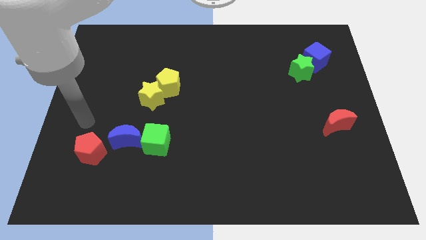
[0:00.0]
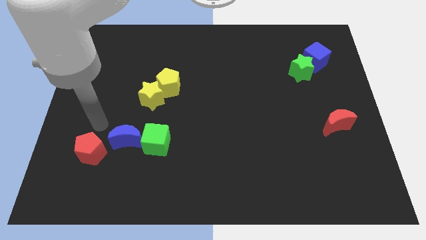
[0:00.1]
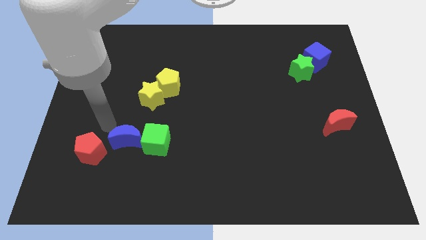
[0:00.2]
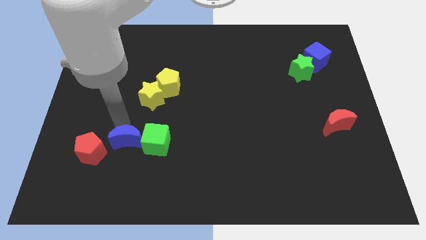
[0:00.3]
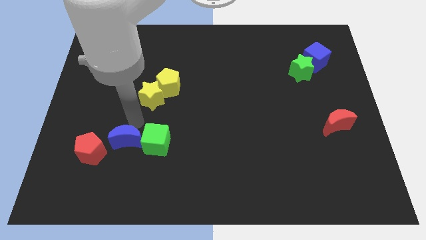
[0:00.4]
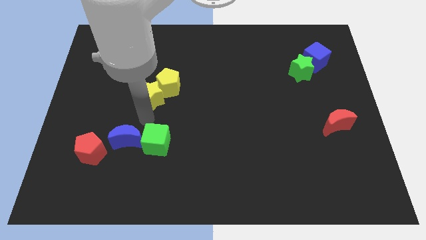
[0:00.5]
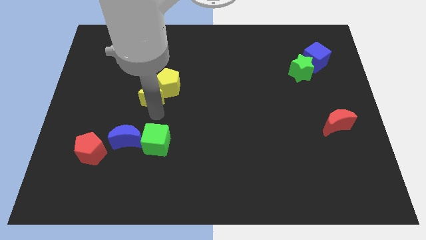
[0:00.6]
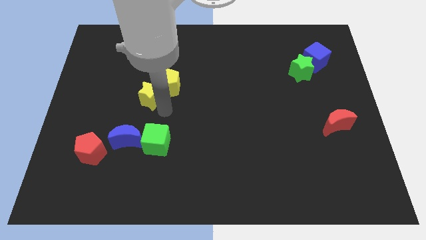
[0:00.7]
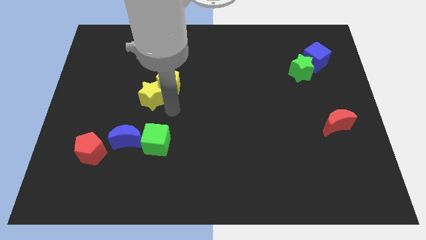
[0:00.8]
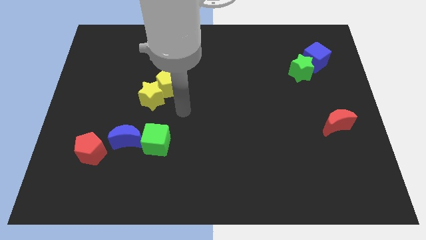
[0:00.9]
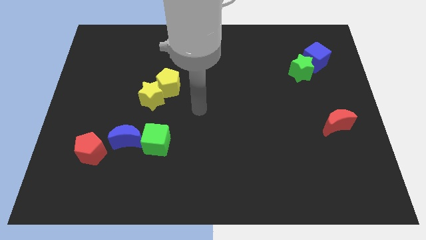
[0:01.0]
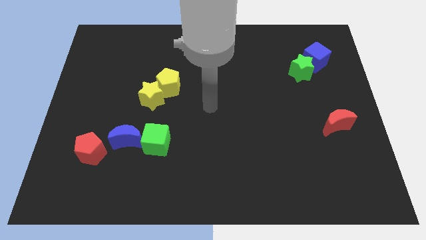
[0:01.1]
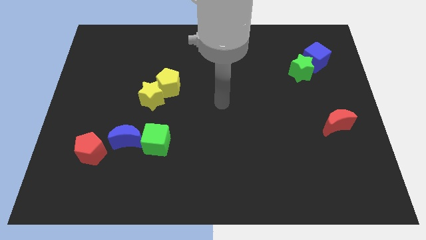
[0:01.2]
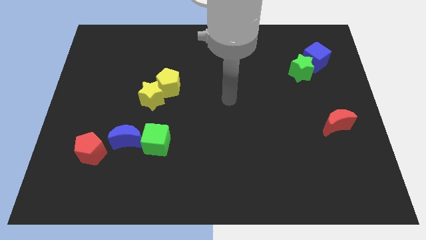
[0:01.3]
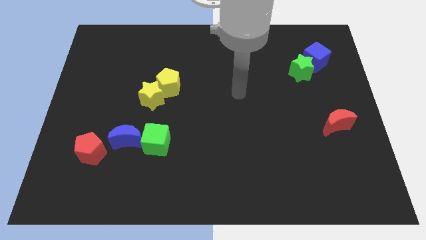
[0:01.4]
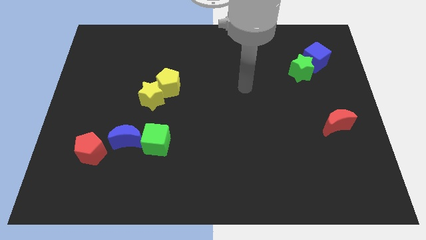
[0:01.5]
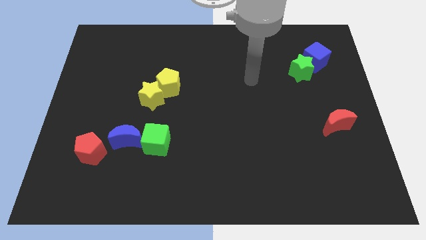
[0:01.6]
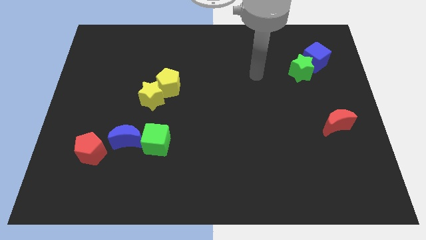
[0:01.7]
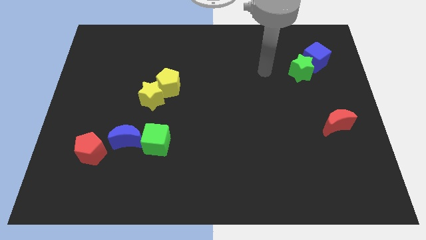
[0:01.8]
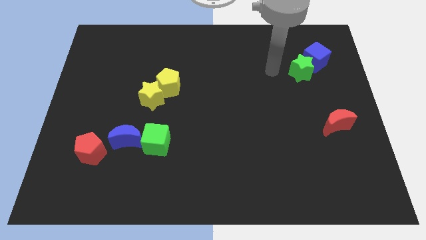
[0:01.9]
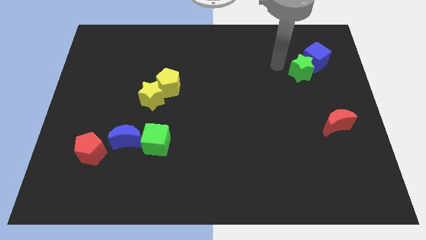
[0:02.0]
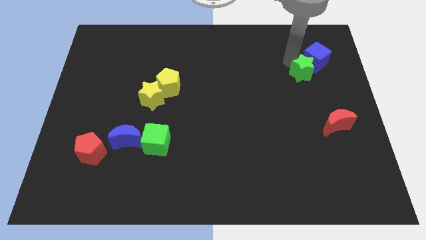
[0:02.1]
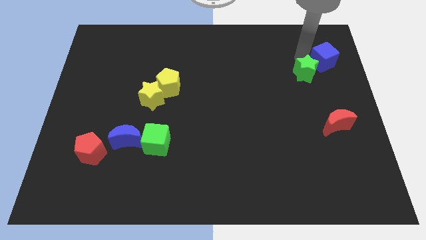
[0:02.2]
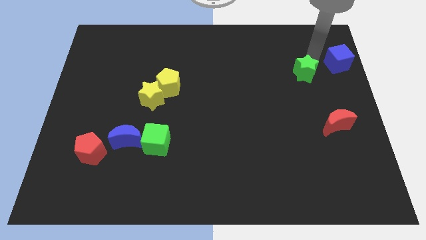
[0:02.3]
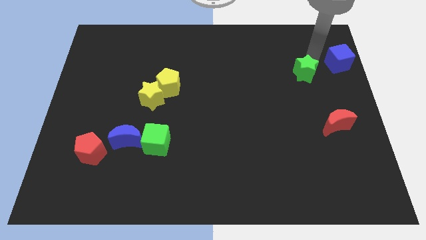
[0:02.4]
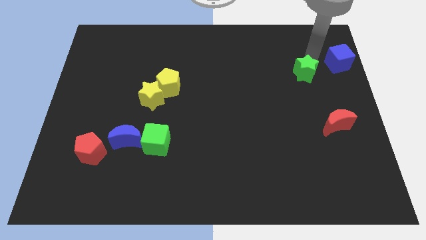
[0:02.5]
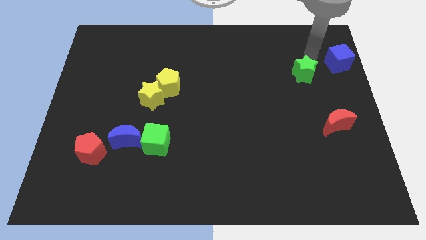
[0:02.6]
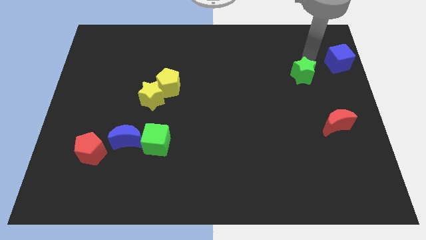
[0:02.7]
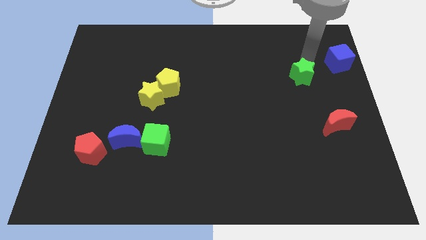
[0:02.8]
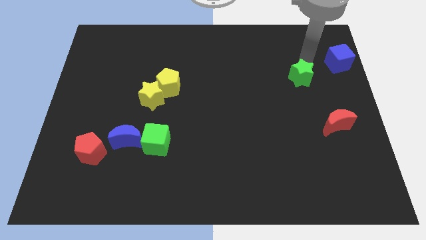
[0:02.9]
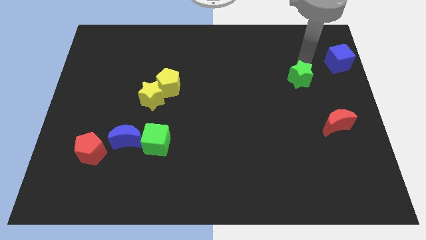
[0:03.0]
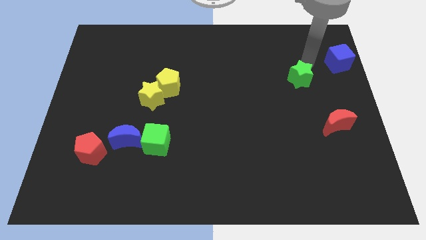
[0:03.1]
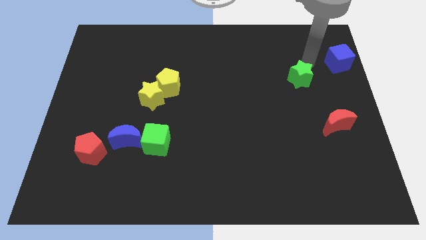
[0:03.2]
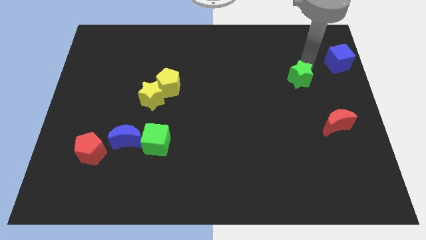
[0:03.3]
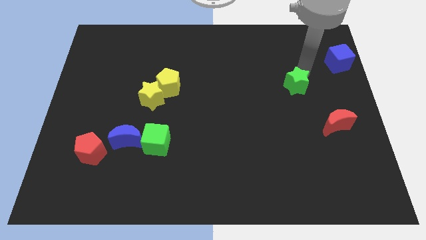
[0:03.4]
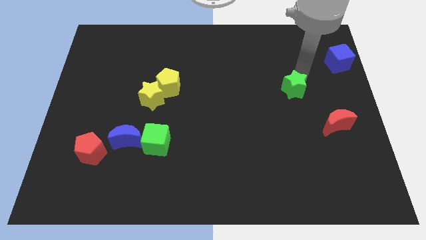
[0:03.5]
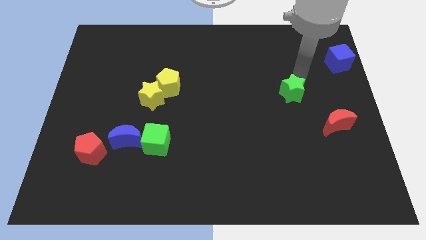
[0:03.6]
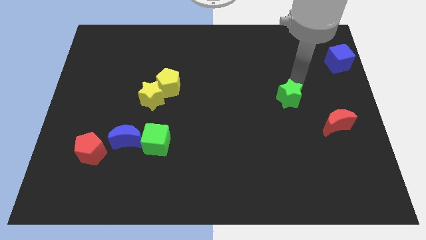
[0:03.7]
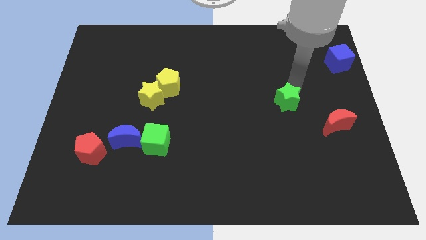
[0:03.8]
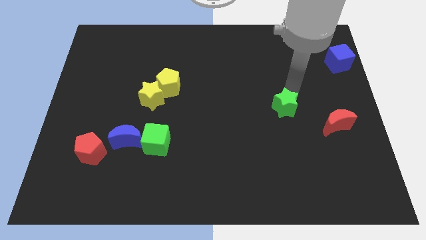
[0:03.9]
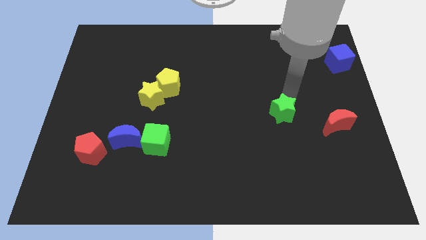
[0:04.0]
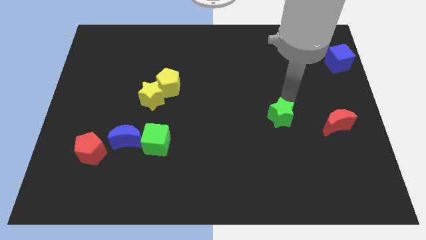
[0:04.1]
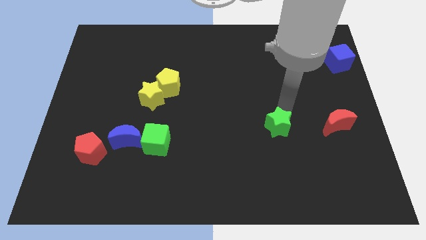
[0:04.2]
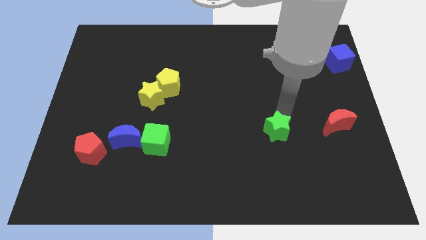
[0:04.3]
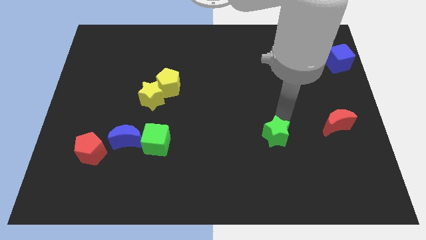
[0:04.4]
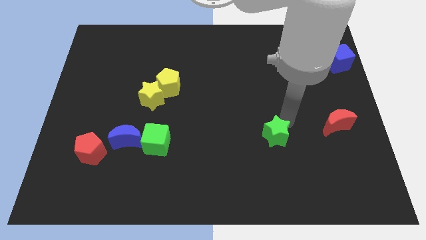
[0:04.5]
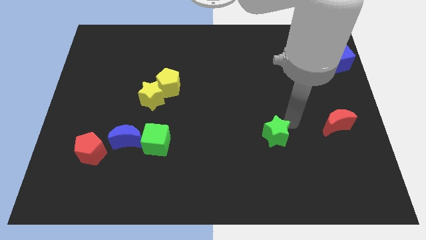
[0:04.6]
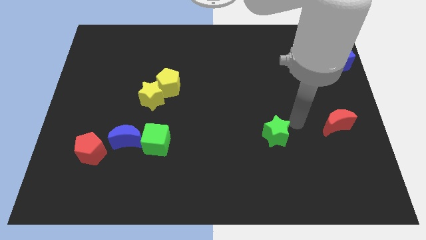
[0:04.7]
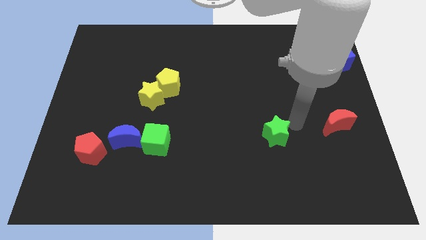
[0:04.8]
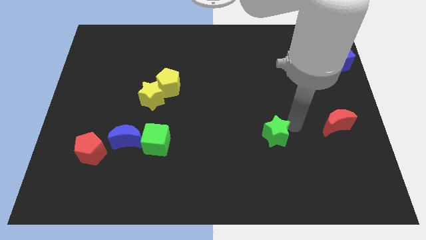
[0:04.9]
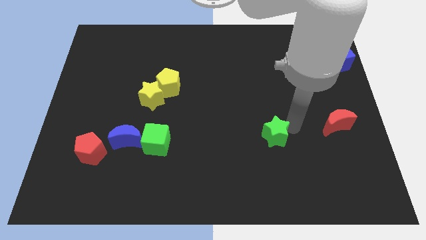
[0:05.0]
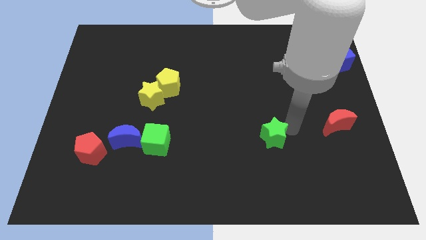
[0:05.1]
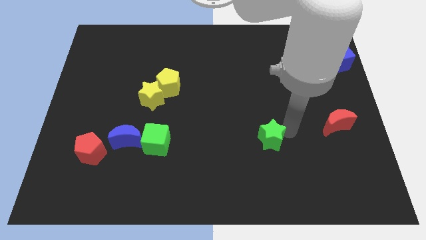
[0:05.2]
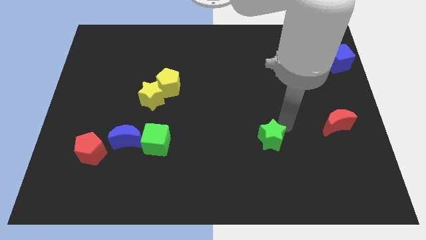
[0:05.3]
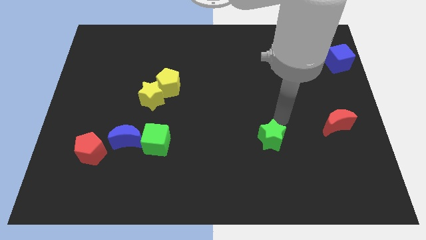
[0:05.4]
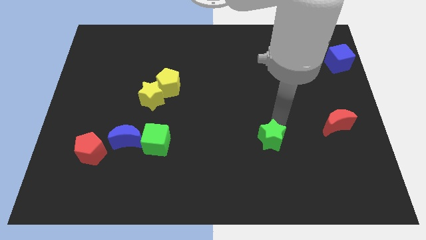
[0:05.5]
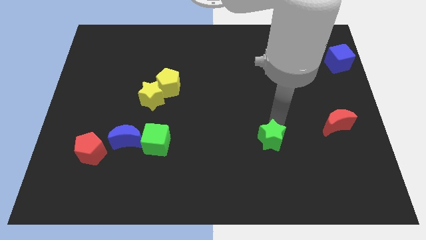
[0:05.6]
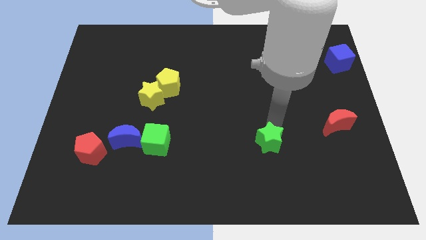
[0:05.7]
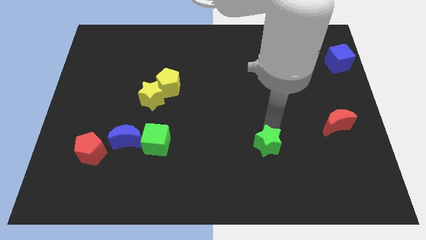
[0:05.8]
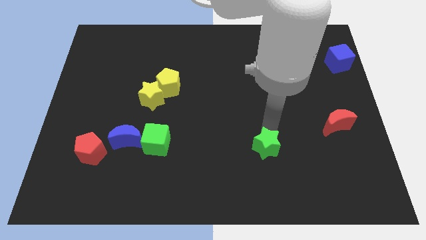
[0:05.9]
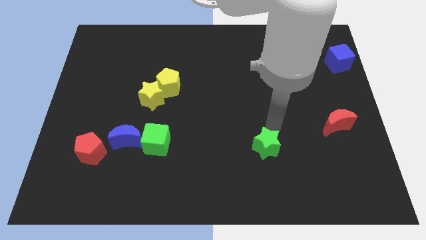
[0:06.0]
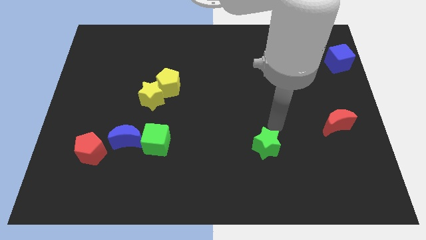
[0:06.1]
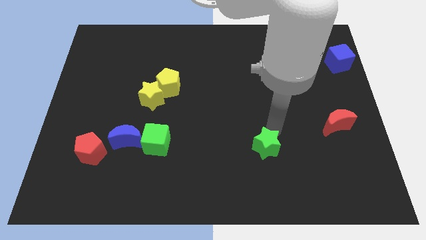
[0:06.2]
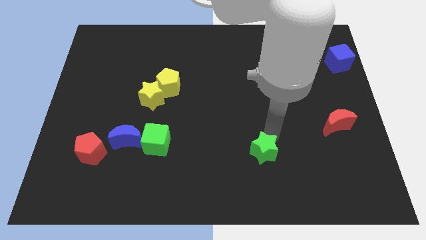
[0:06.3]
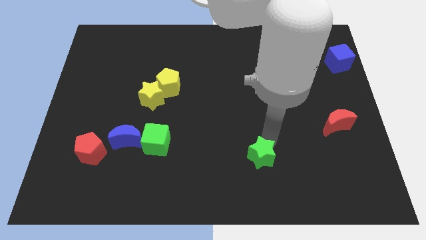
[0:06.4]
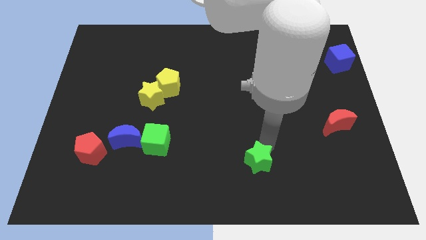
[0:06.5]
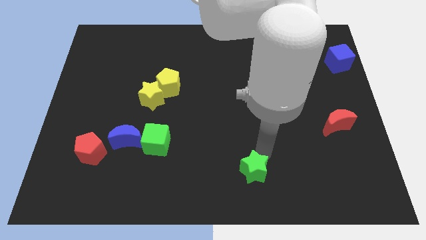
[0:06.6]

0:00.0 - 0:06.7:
push the green star to the bottom
